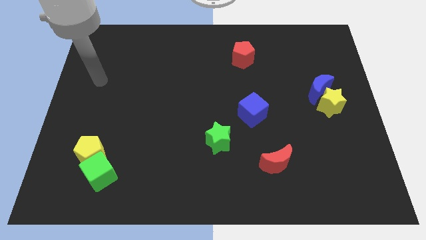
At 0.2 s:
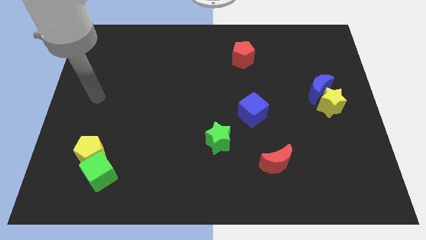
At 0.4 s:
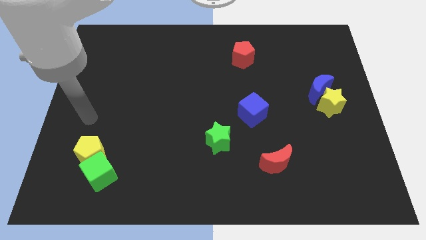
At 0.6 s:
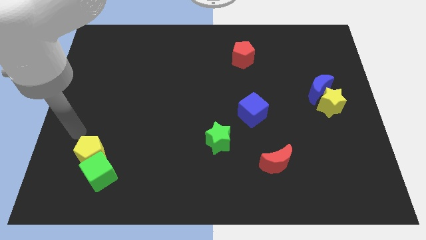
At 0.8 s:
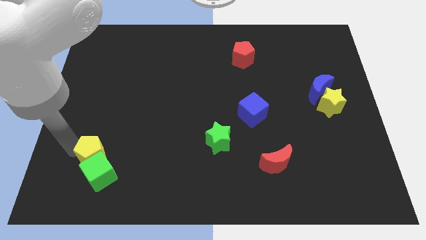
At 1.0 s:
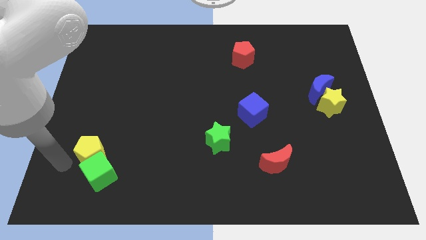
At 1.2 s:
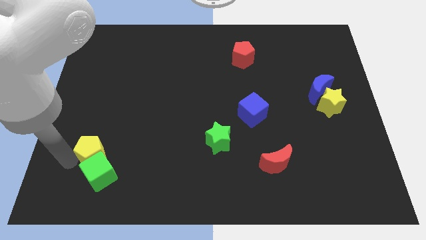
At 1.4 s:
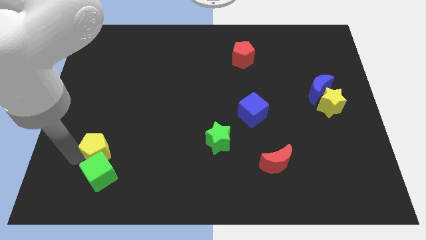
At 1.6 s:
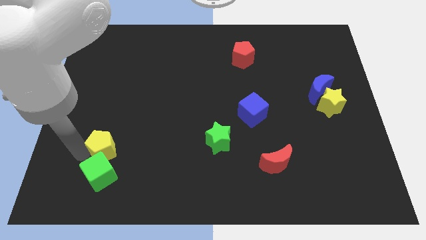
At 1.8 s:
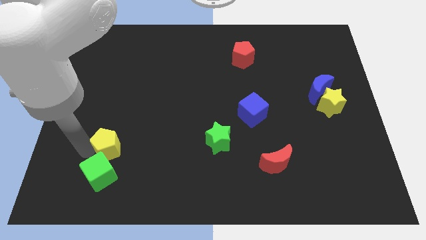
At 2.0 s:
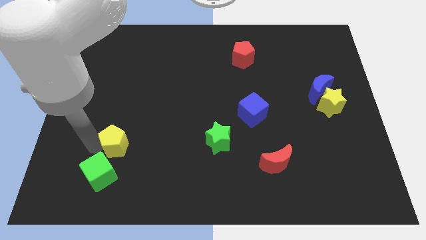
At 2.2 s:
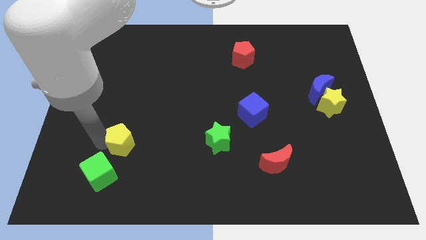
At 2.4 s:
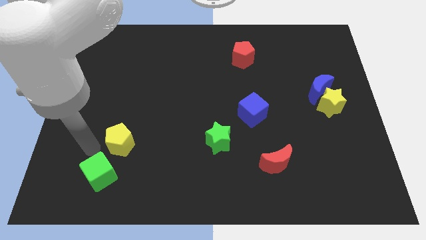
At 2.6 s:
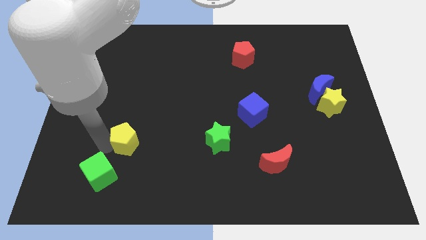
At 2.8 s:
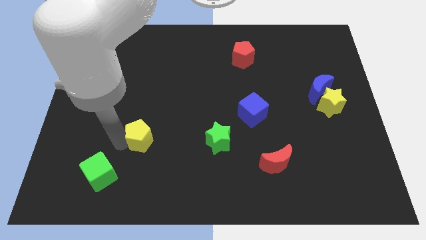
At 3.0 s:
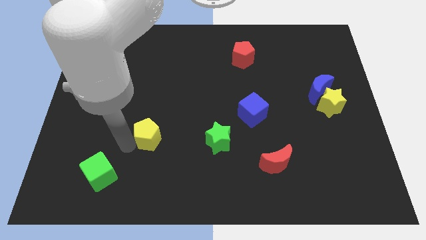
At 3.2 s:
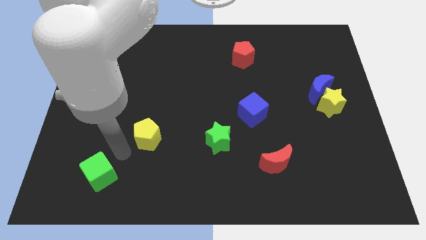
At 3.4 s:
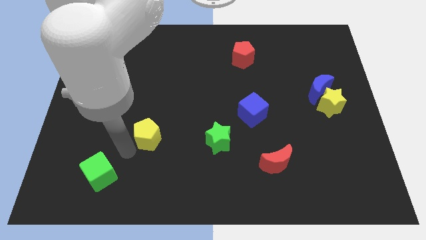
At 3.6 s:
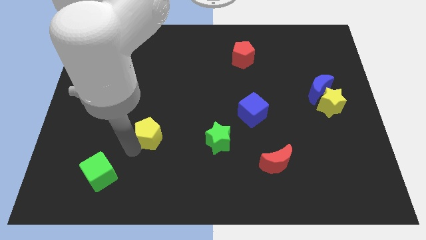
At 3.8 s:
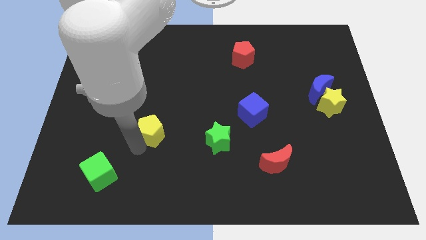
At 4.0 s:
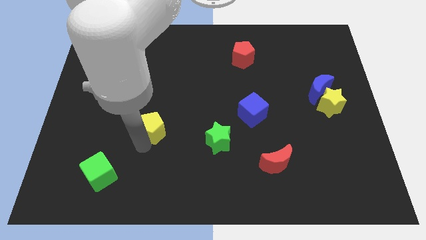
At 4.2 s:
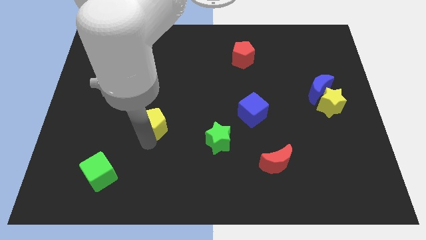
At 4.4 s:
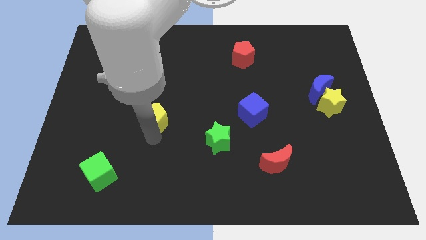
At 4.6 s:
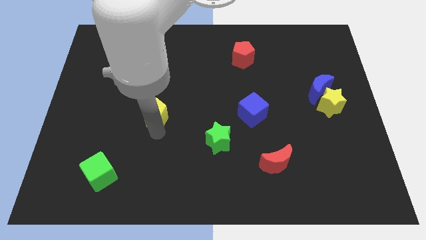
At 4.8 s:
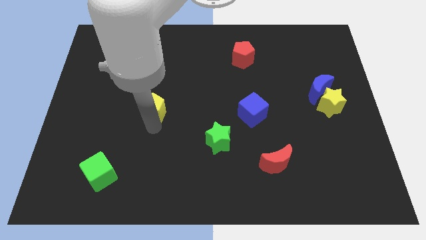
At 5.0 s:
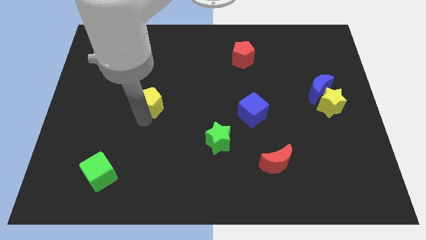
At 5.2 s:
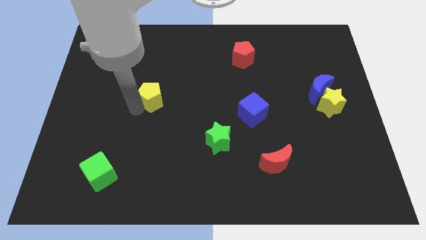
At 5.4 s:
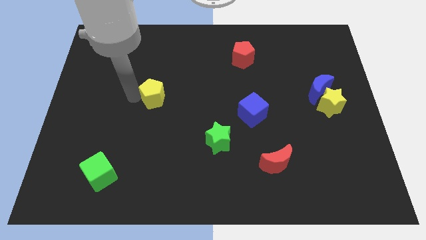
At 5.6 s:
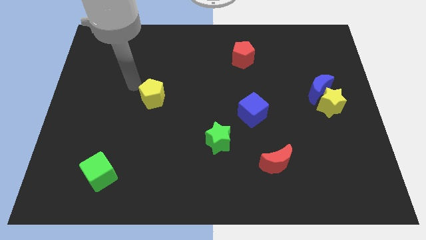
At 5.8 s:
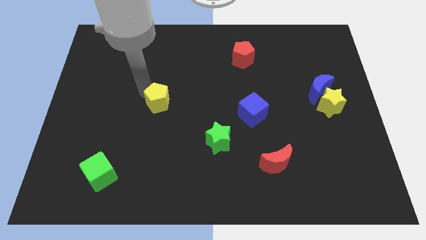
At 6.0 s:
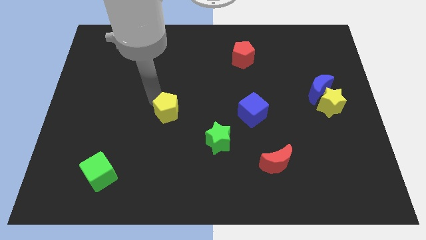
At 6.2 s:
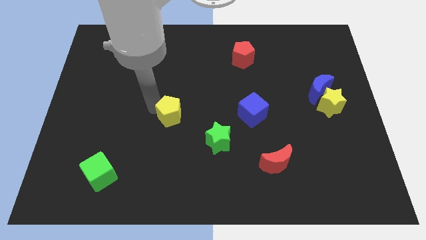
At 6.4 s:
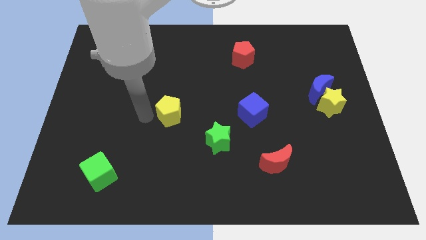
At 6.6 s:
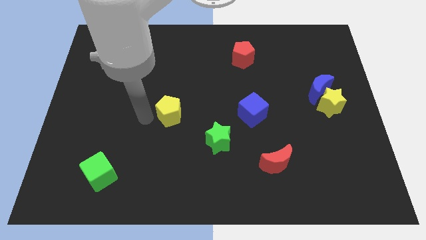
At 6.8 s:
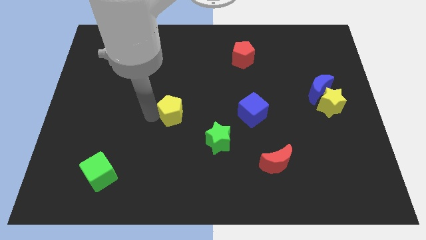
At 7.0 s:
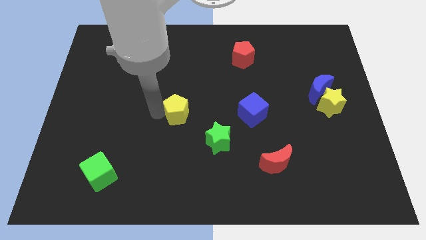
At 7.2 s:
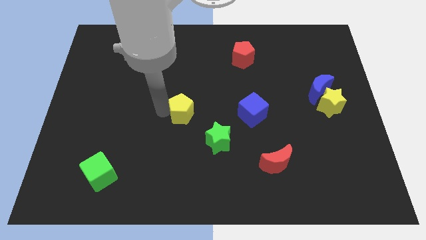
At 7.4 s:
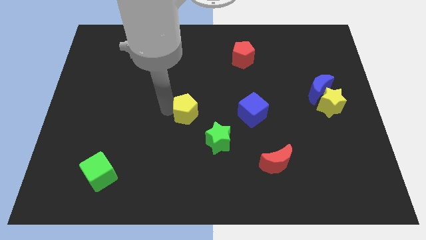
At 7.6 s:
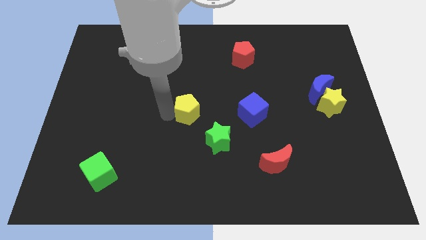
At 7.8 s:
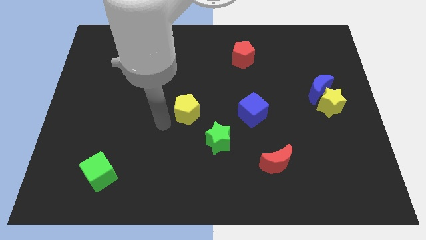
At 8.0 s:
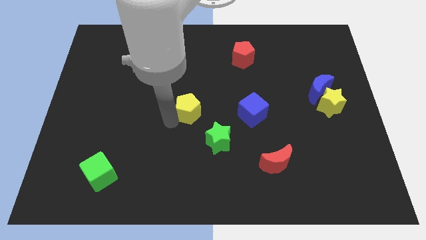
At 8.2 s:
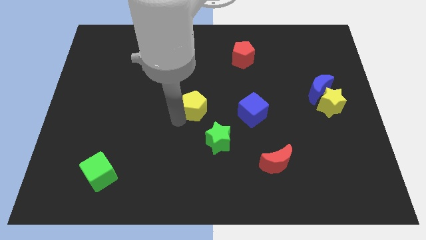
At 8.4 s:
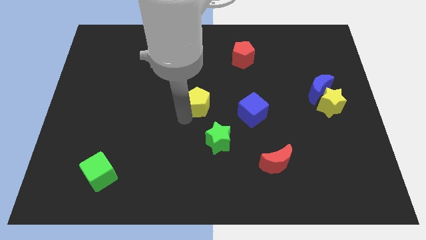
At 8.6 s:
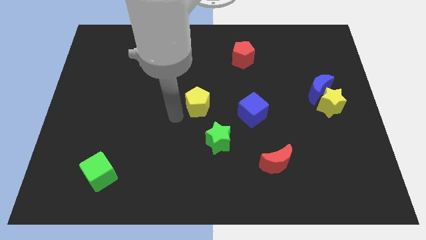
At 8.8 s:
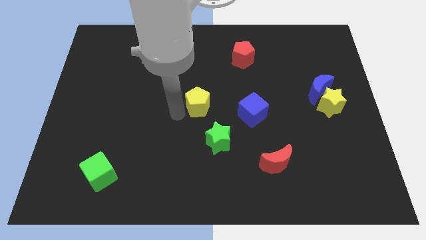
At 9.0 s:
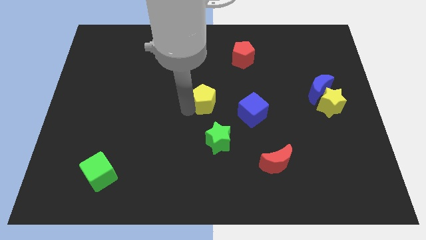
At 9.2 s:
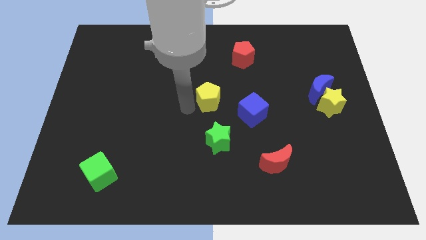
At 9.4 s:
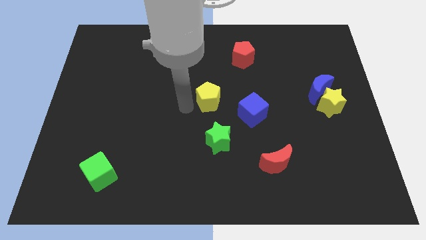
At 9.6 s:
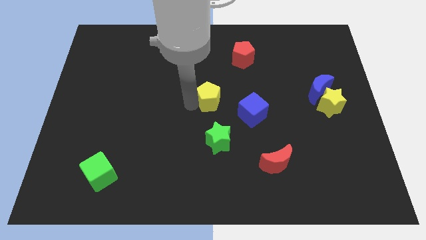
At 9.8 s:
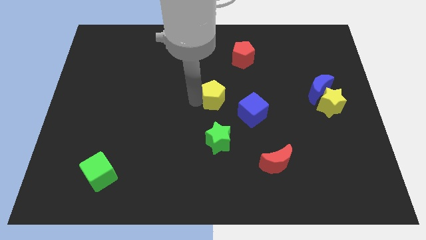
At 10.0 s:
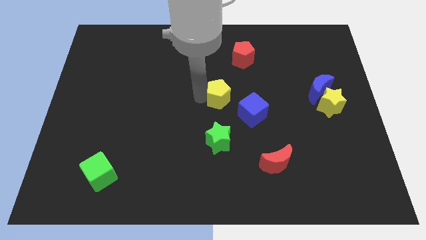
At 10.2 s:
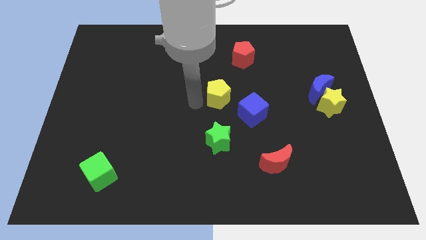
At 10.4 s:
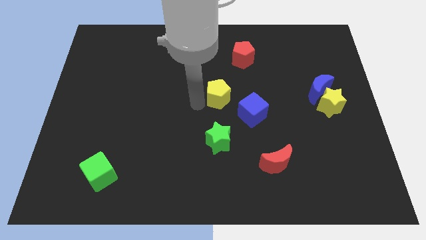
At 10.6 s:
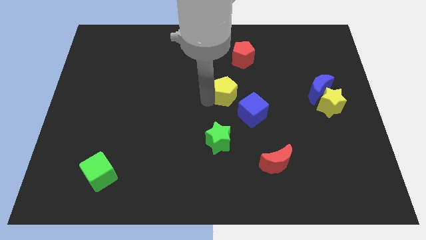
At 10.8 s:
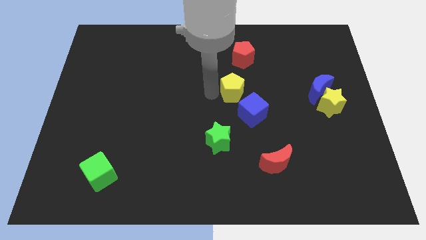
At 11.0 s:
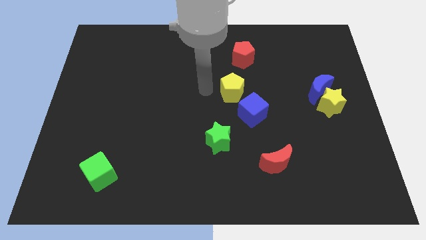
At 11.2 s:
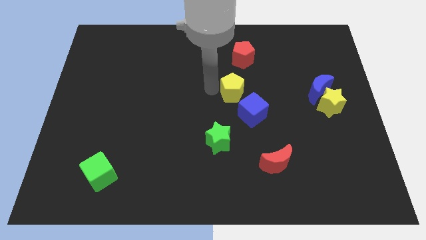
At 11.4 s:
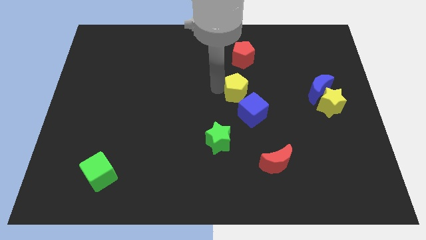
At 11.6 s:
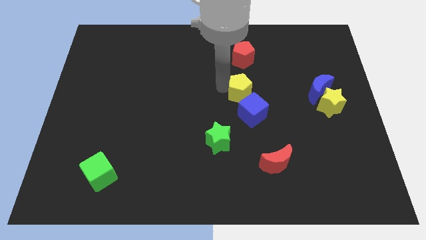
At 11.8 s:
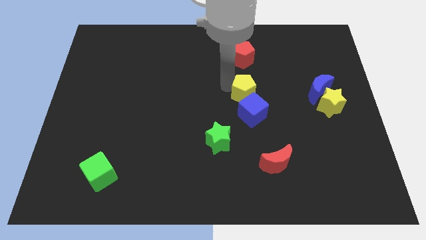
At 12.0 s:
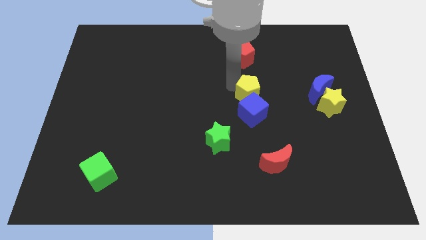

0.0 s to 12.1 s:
push the yellow pentagon to the top right of the blue cube

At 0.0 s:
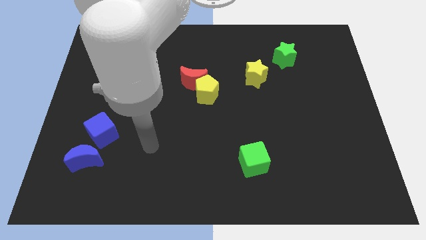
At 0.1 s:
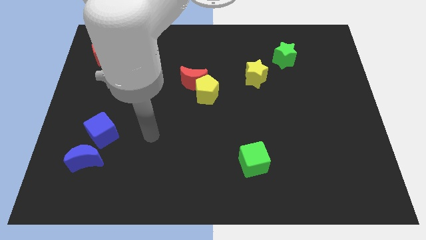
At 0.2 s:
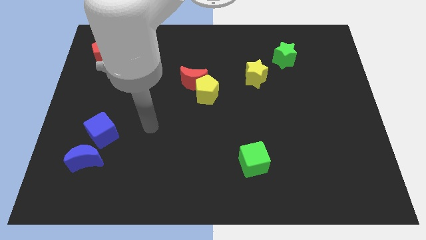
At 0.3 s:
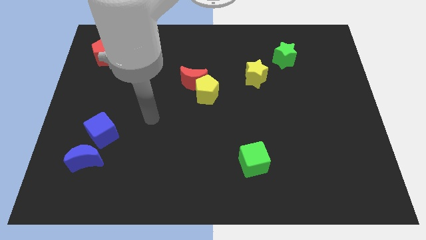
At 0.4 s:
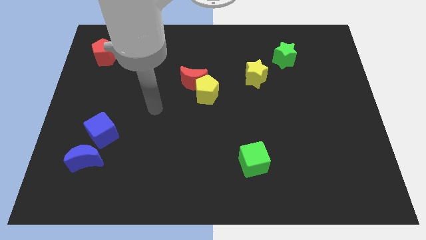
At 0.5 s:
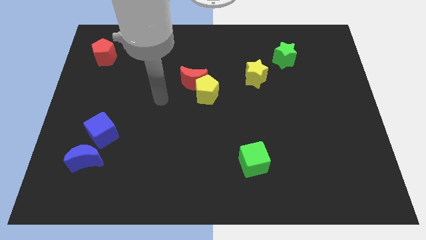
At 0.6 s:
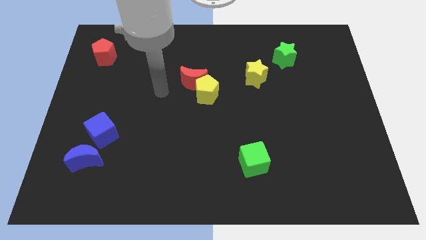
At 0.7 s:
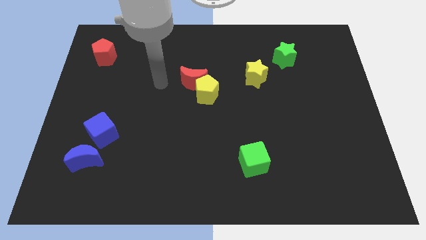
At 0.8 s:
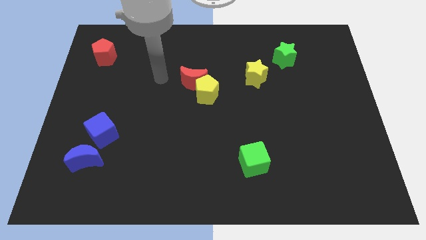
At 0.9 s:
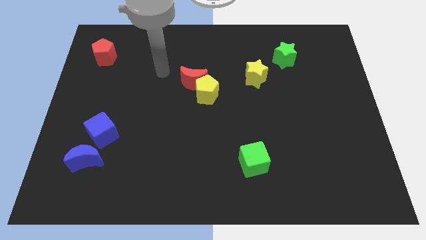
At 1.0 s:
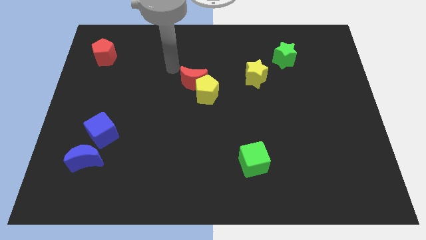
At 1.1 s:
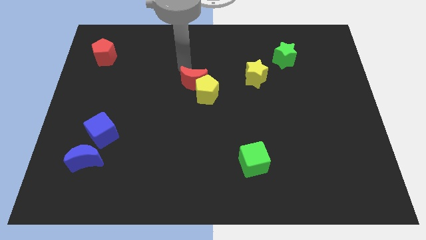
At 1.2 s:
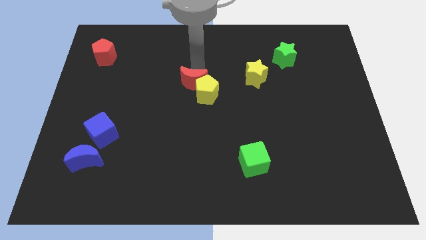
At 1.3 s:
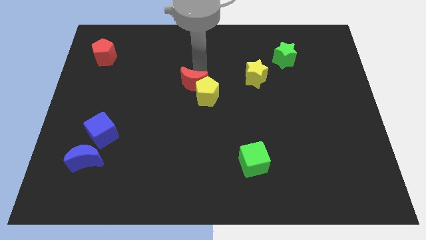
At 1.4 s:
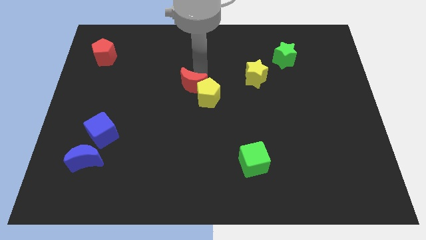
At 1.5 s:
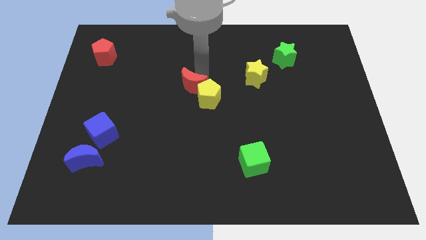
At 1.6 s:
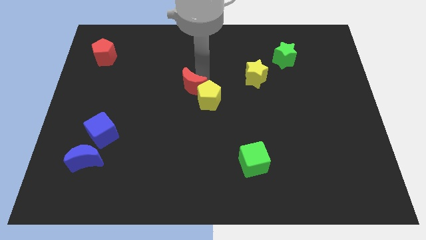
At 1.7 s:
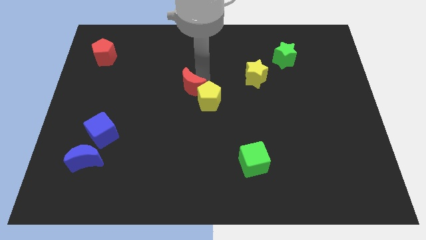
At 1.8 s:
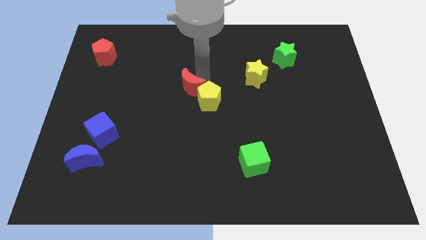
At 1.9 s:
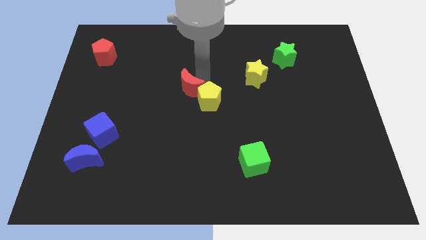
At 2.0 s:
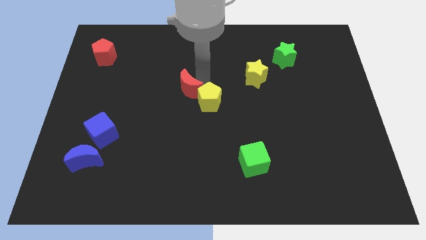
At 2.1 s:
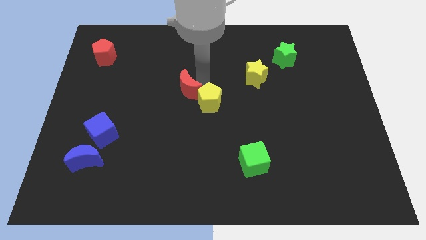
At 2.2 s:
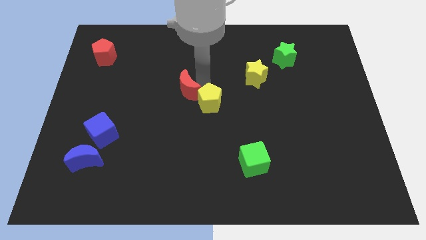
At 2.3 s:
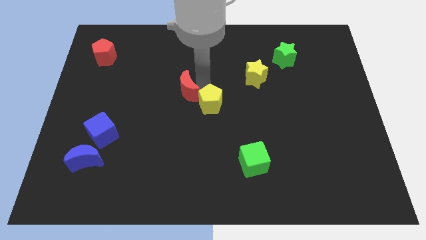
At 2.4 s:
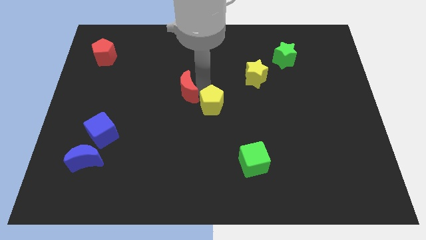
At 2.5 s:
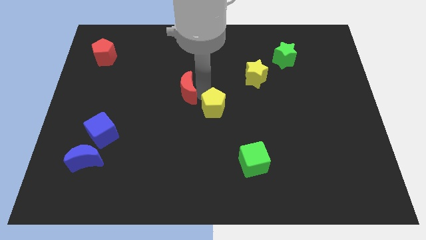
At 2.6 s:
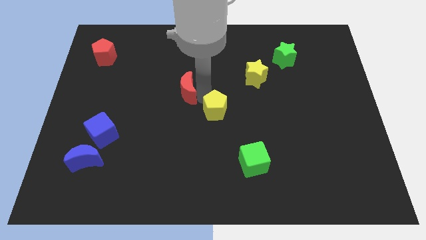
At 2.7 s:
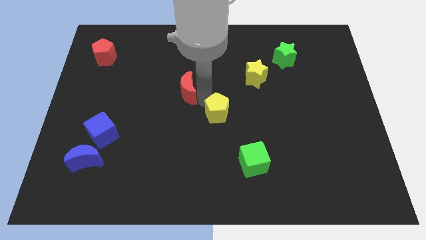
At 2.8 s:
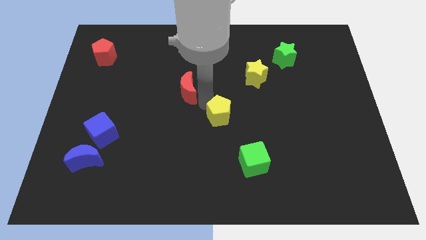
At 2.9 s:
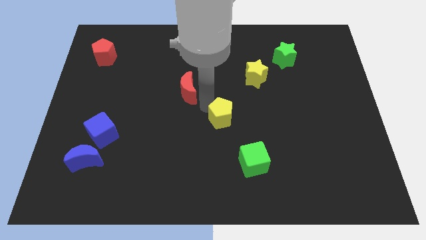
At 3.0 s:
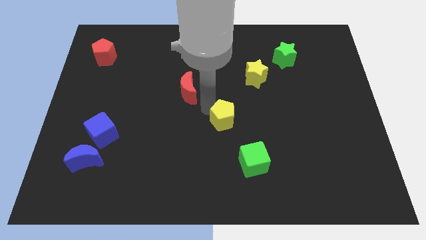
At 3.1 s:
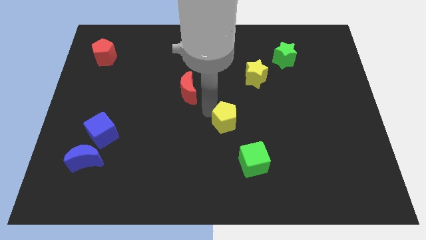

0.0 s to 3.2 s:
push the yellow pentagon diagonally up and to the left of the green cube
